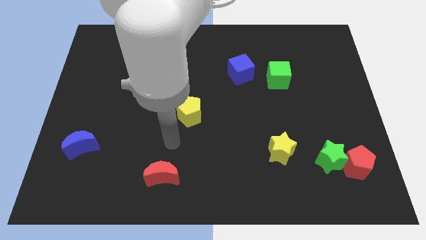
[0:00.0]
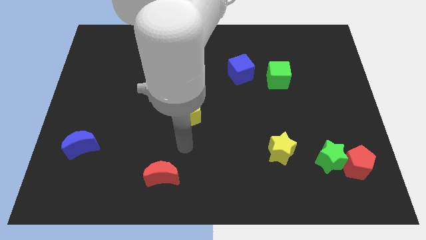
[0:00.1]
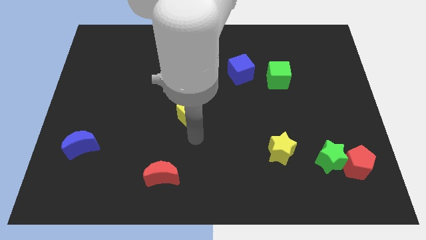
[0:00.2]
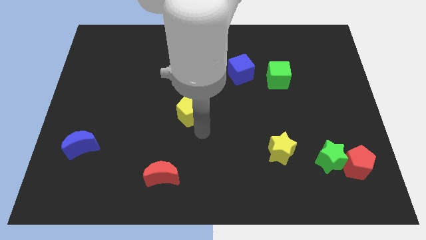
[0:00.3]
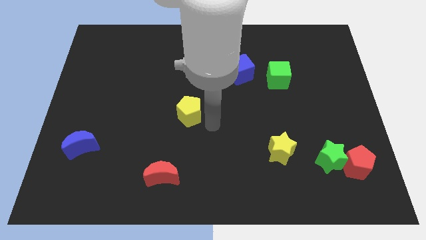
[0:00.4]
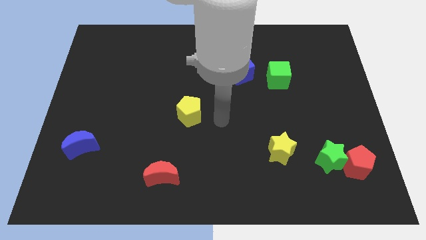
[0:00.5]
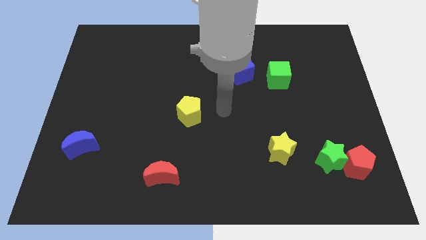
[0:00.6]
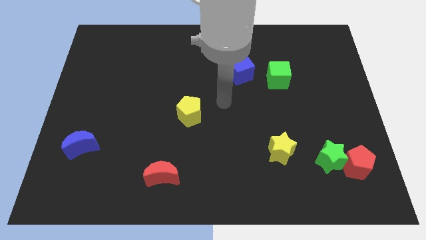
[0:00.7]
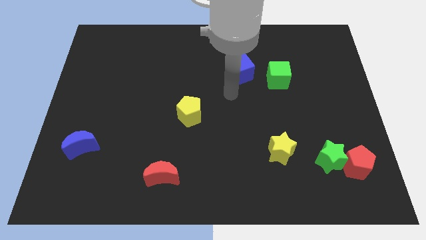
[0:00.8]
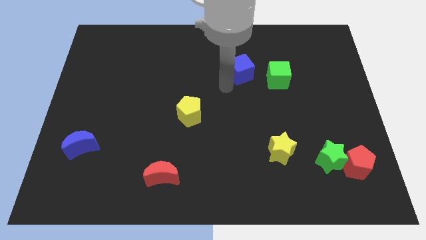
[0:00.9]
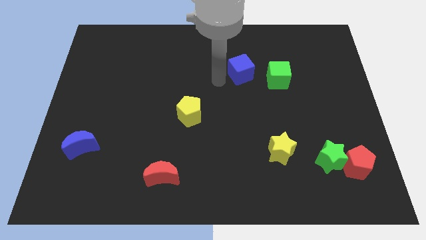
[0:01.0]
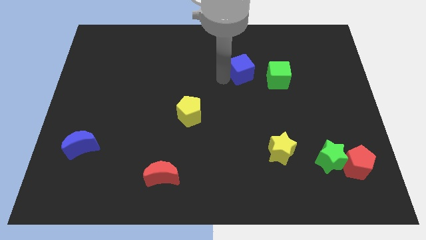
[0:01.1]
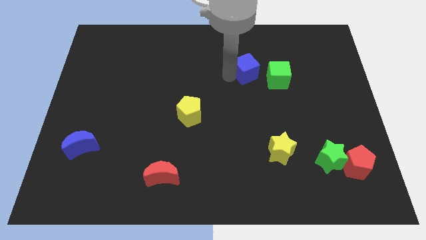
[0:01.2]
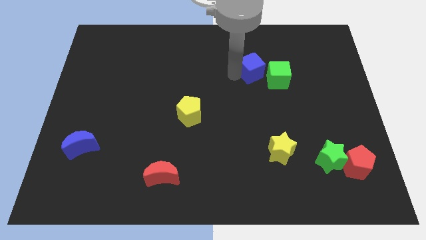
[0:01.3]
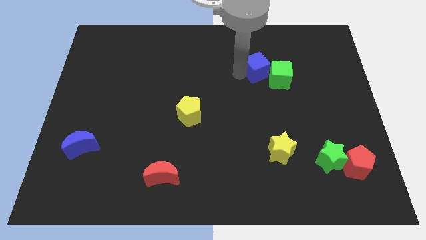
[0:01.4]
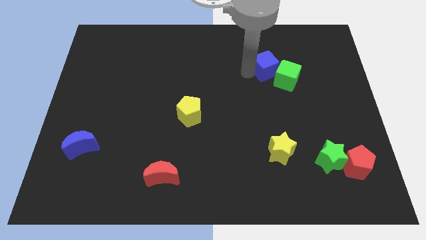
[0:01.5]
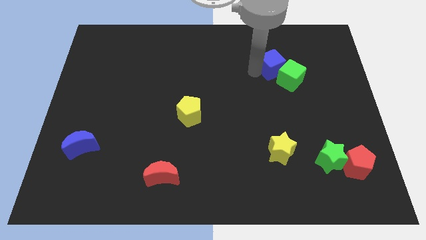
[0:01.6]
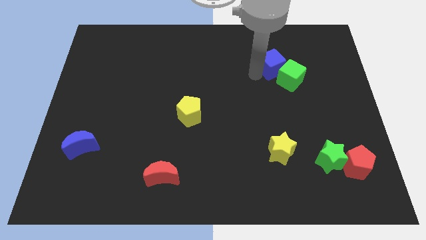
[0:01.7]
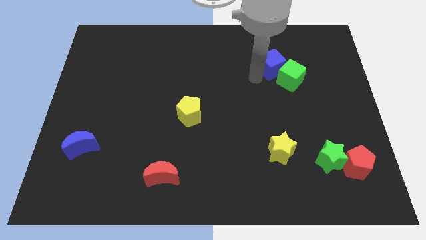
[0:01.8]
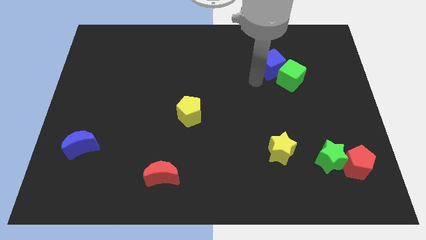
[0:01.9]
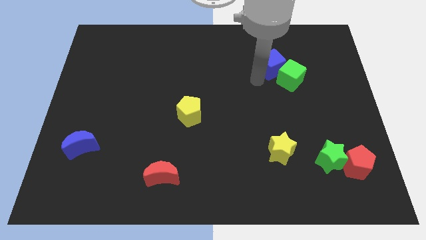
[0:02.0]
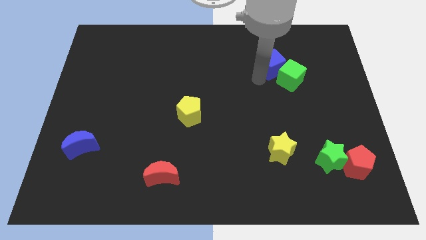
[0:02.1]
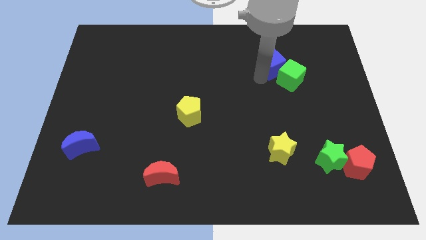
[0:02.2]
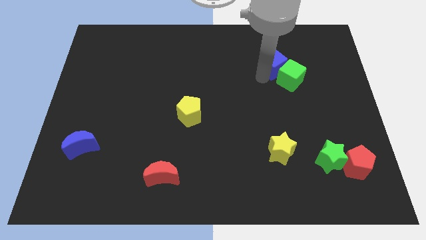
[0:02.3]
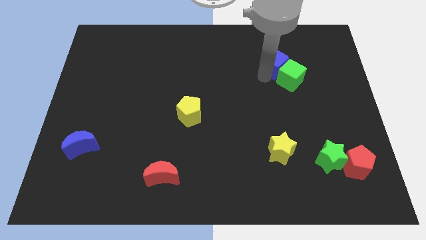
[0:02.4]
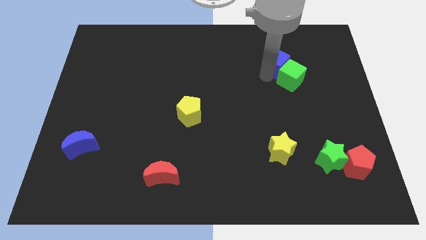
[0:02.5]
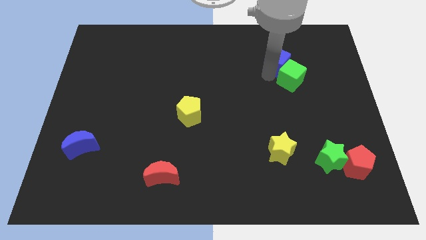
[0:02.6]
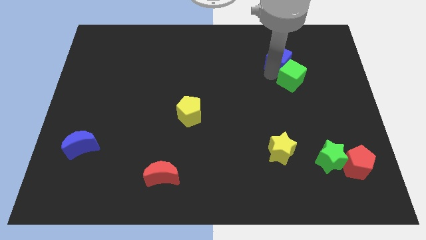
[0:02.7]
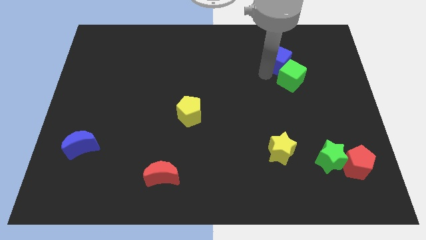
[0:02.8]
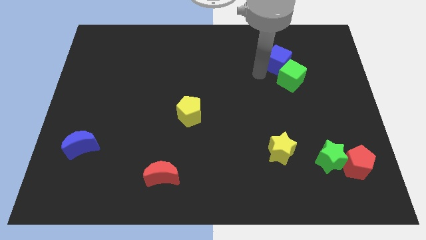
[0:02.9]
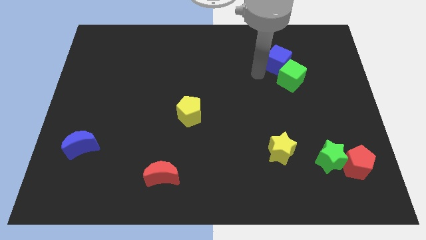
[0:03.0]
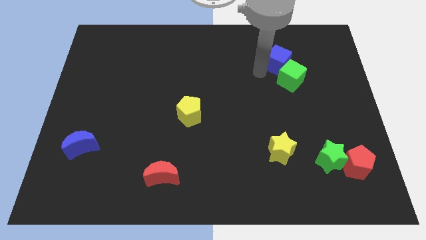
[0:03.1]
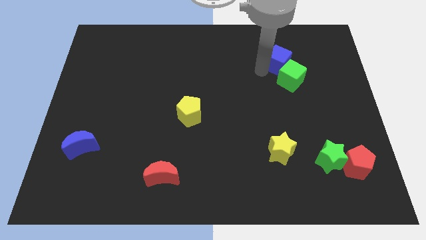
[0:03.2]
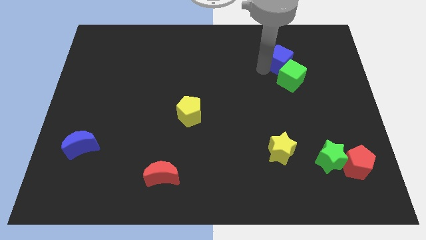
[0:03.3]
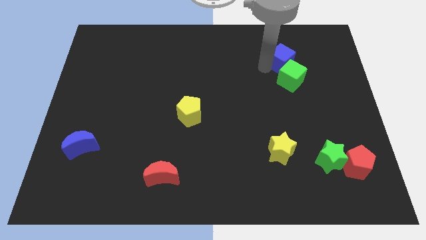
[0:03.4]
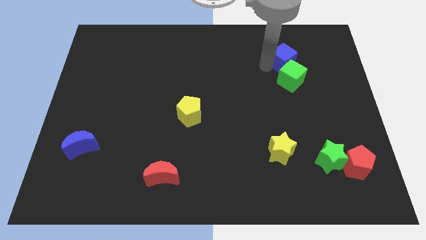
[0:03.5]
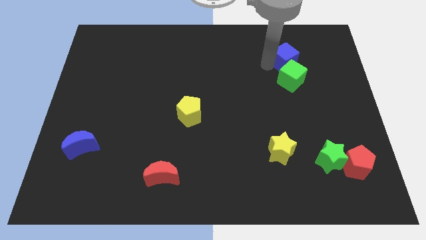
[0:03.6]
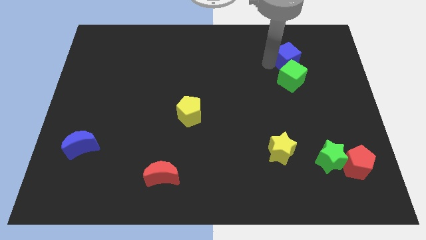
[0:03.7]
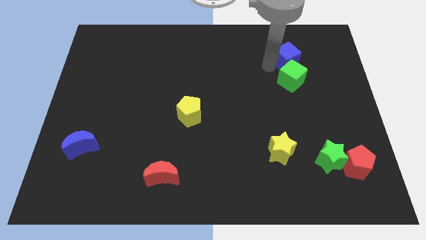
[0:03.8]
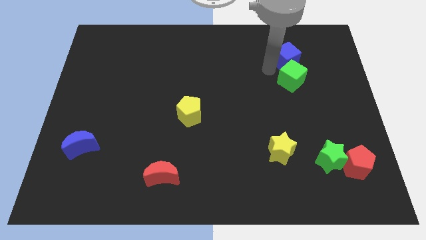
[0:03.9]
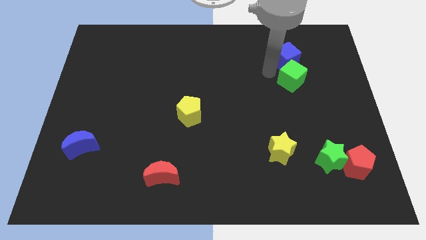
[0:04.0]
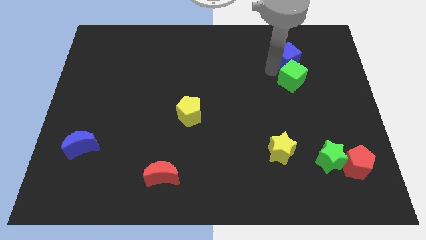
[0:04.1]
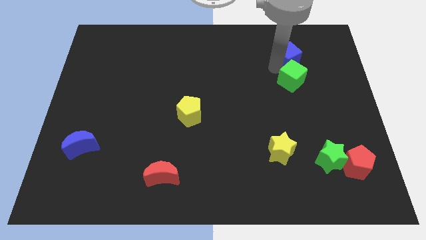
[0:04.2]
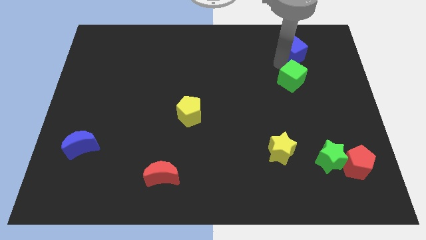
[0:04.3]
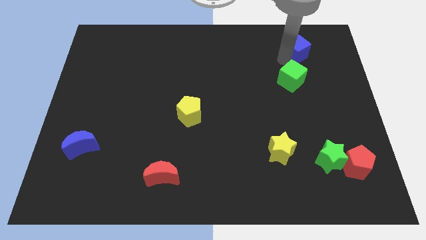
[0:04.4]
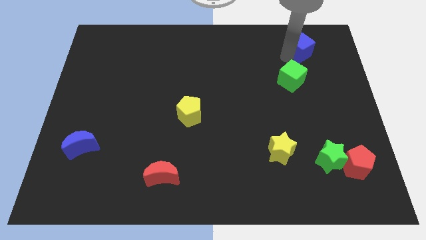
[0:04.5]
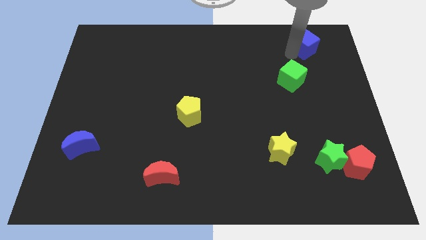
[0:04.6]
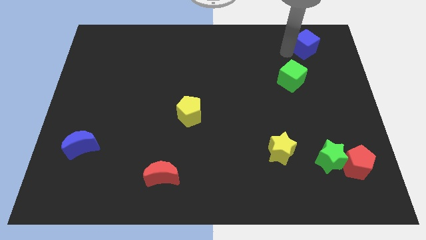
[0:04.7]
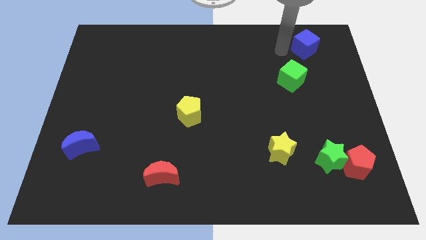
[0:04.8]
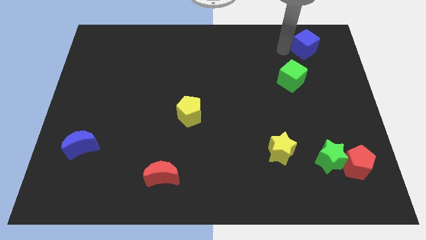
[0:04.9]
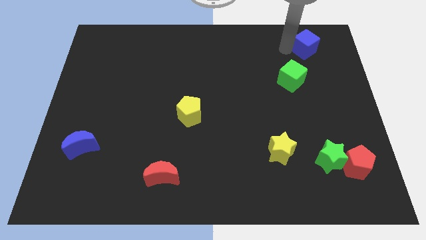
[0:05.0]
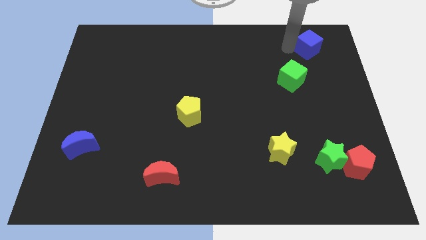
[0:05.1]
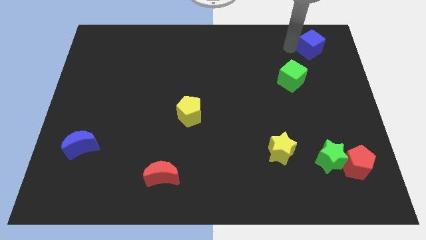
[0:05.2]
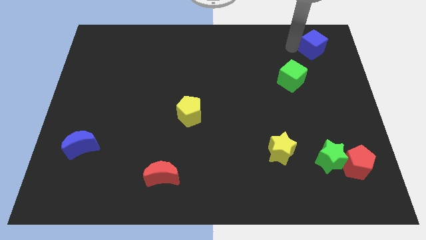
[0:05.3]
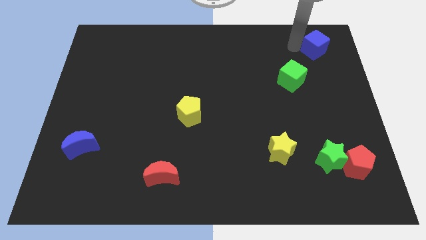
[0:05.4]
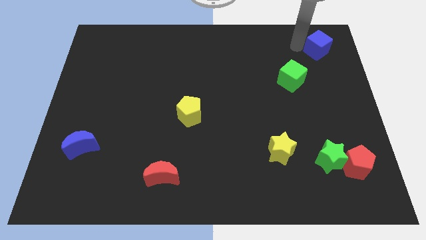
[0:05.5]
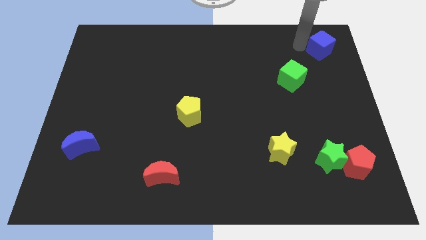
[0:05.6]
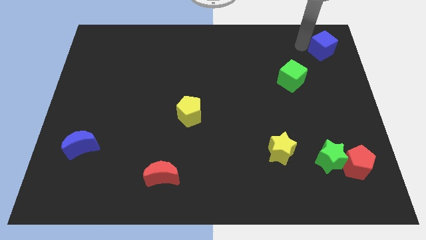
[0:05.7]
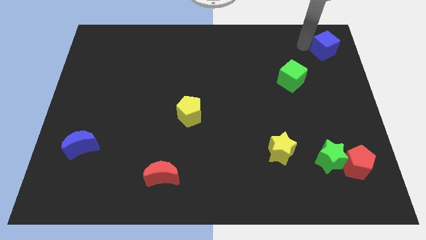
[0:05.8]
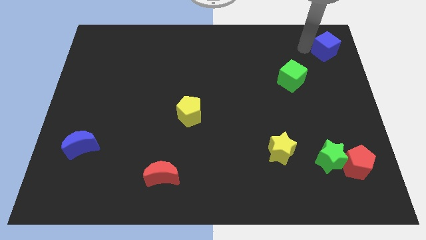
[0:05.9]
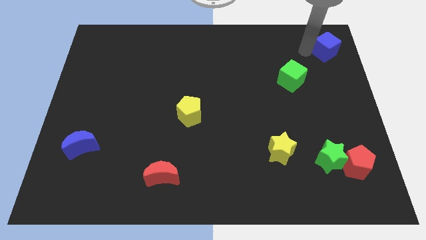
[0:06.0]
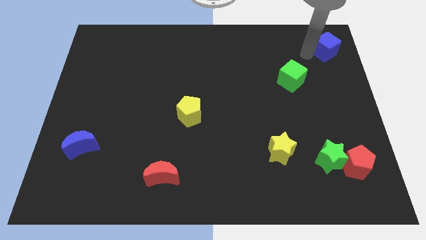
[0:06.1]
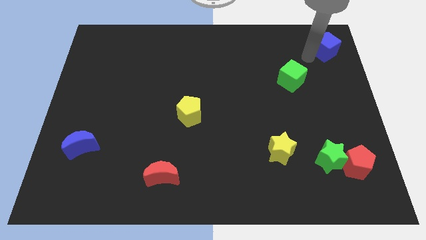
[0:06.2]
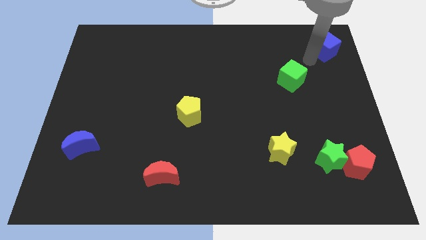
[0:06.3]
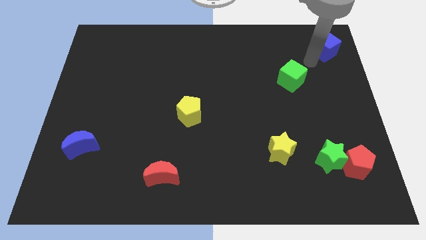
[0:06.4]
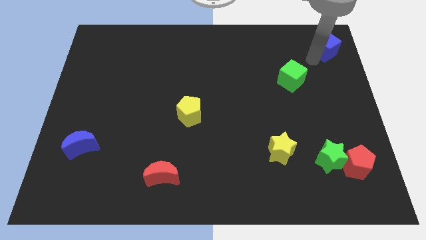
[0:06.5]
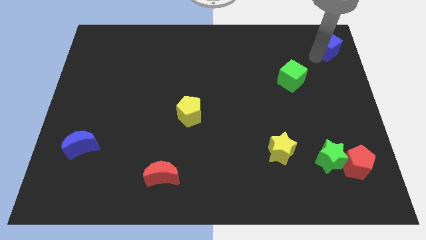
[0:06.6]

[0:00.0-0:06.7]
put the blue cube to the top right
